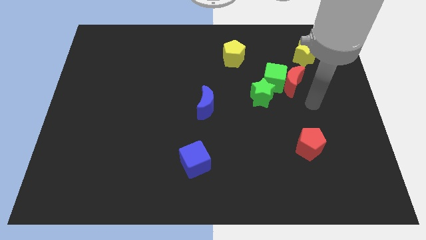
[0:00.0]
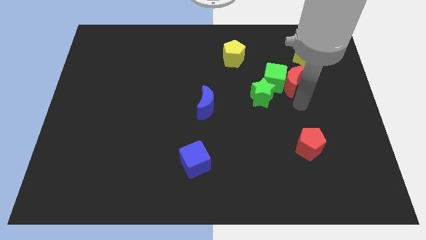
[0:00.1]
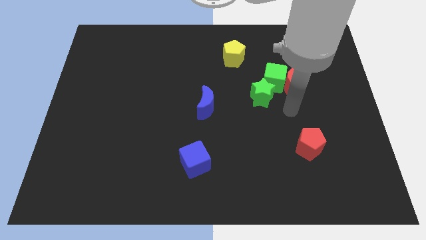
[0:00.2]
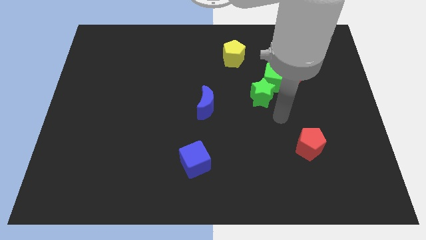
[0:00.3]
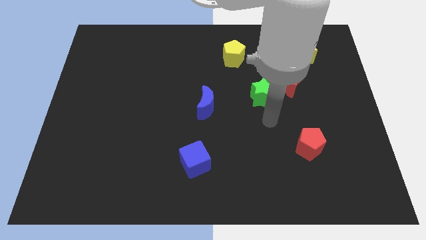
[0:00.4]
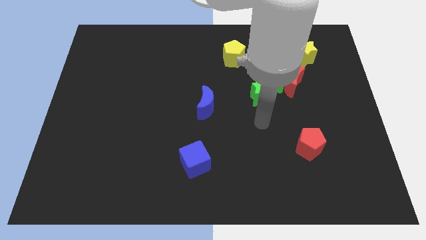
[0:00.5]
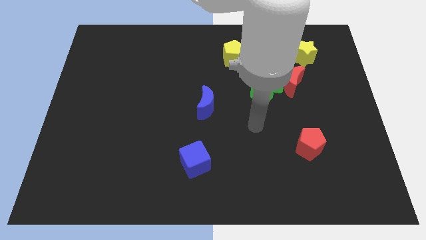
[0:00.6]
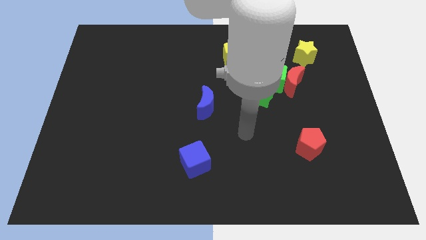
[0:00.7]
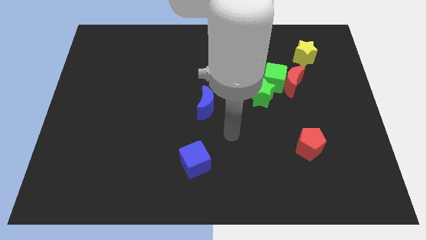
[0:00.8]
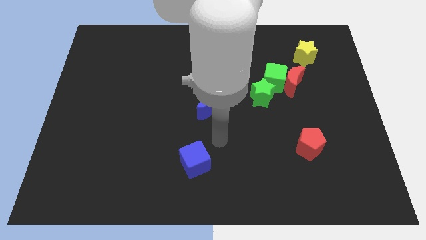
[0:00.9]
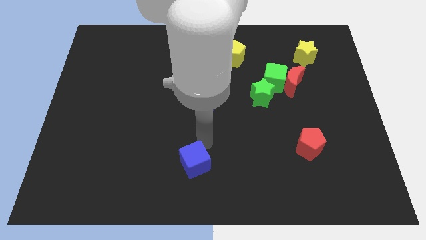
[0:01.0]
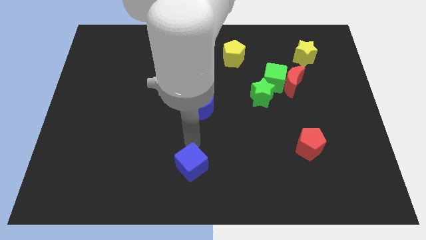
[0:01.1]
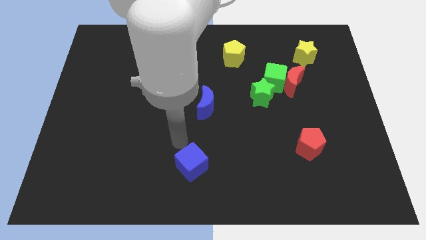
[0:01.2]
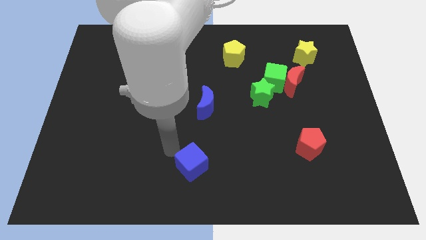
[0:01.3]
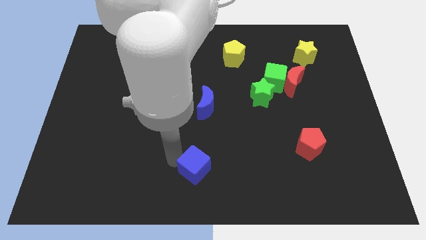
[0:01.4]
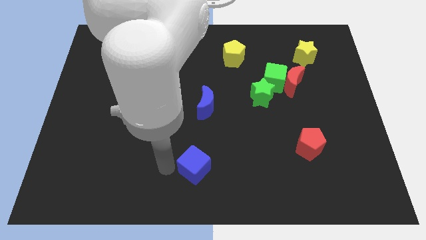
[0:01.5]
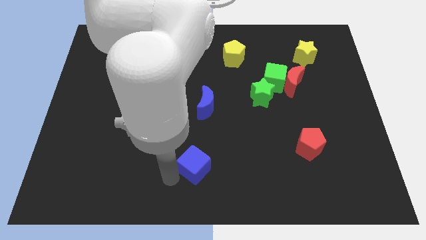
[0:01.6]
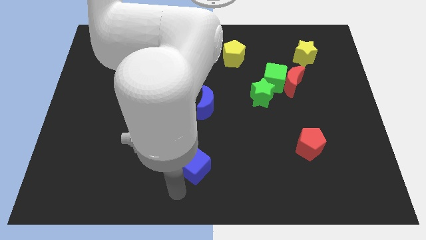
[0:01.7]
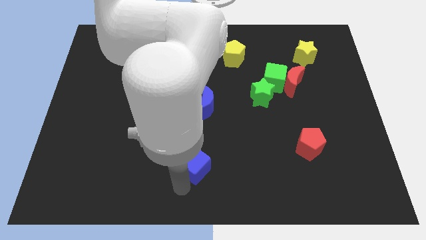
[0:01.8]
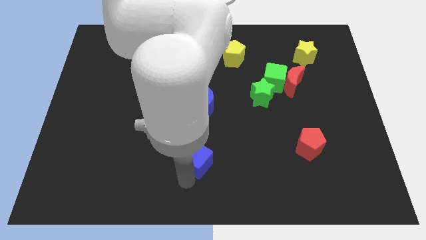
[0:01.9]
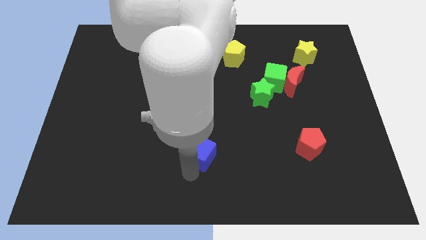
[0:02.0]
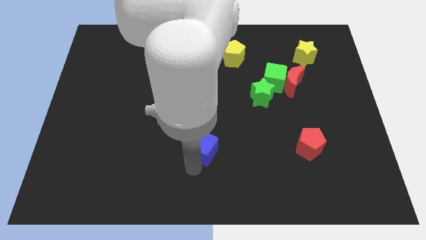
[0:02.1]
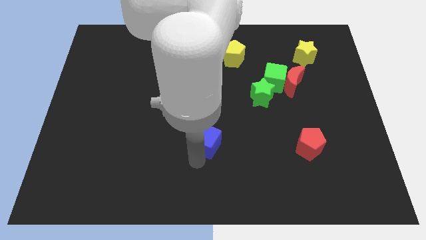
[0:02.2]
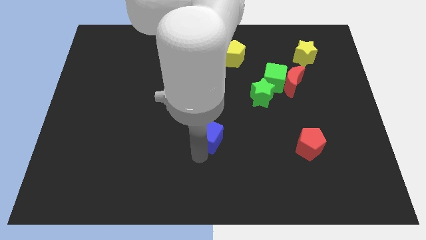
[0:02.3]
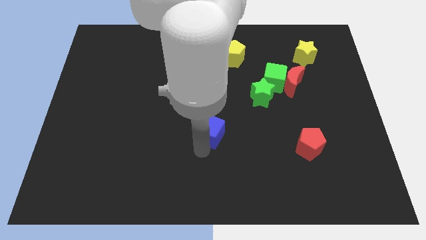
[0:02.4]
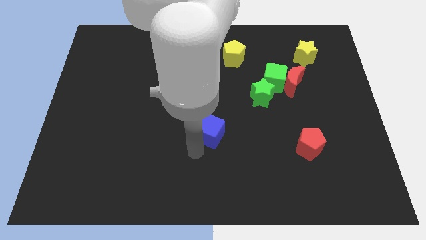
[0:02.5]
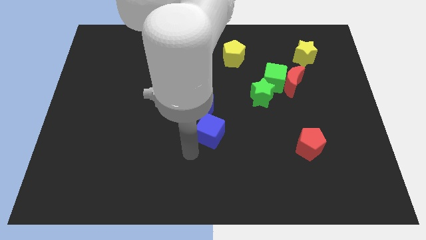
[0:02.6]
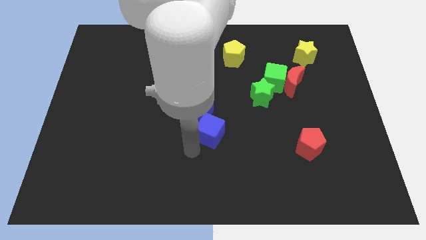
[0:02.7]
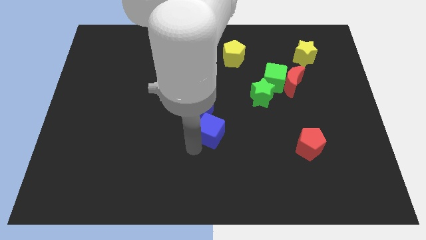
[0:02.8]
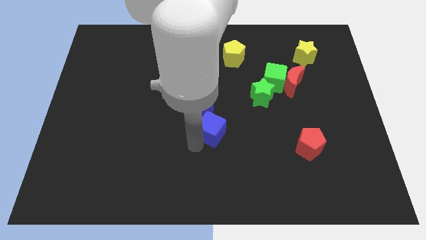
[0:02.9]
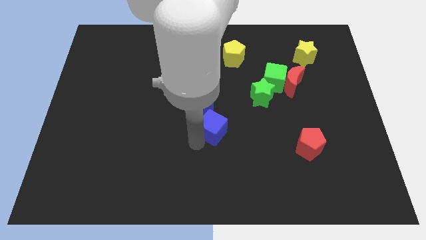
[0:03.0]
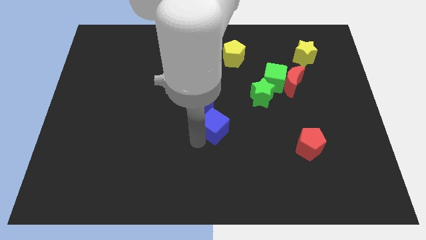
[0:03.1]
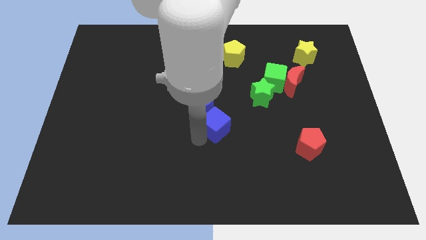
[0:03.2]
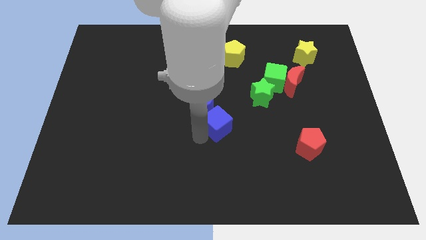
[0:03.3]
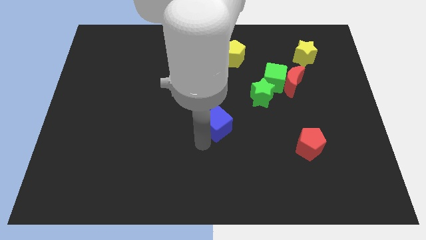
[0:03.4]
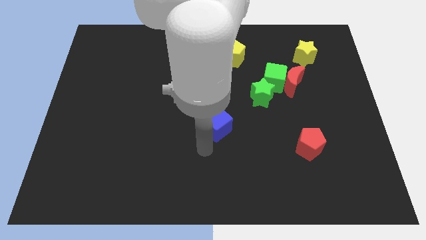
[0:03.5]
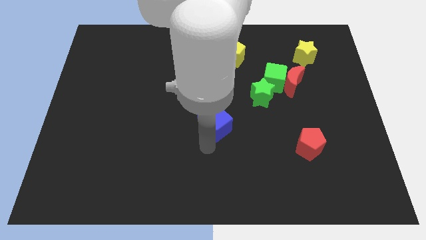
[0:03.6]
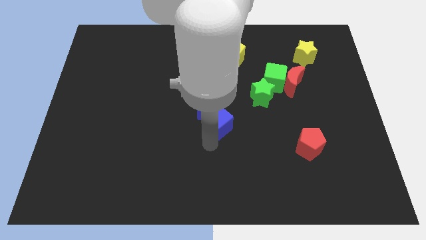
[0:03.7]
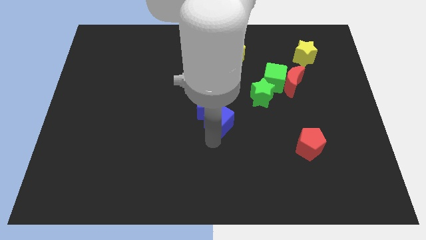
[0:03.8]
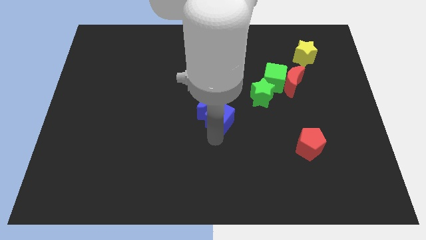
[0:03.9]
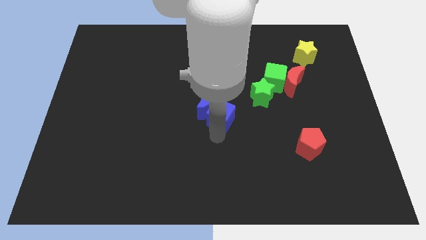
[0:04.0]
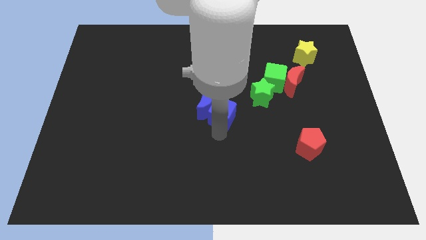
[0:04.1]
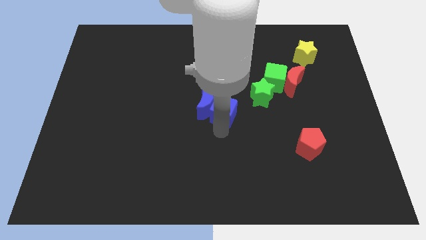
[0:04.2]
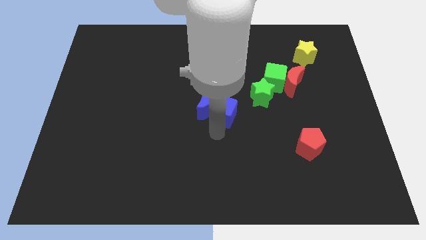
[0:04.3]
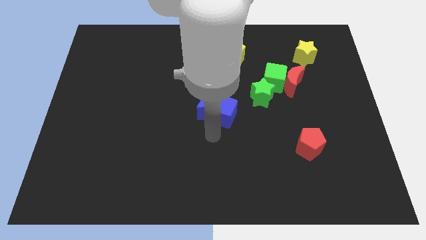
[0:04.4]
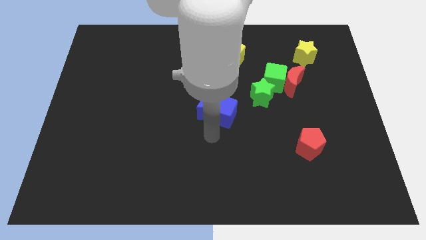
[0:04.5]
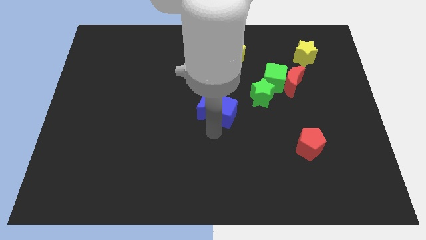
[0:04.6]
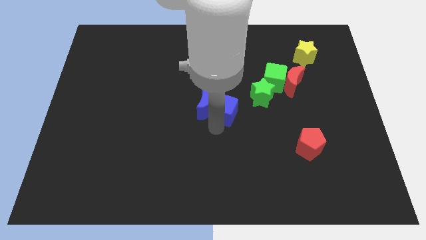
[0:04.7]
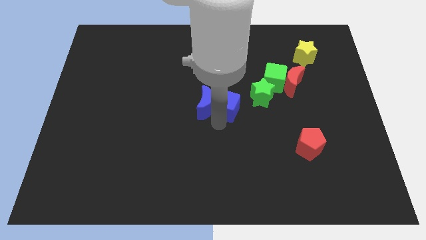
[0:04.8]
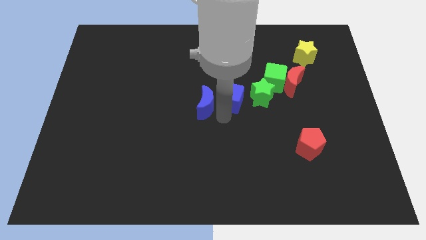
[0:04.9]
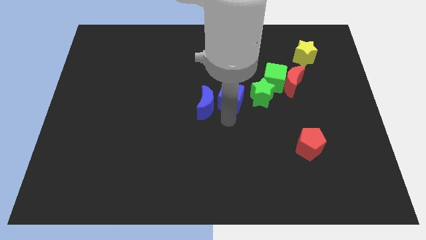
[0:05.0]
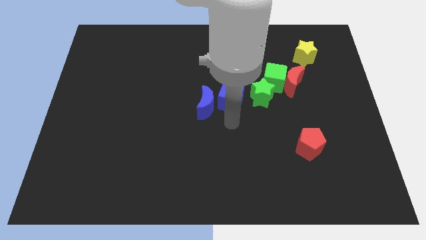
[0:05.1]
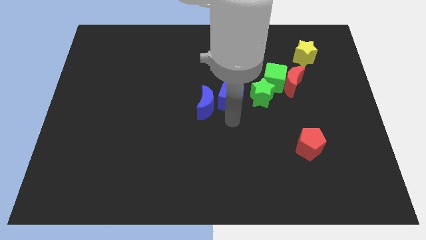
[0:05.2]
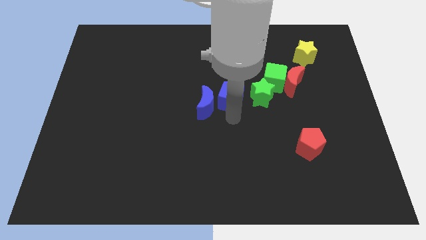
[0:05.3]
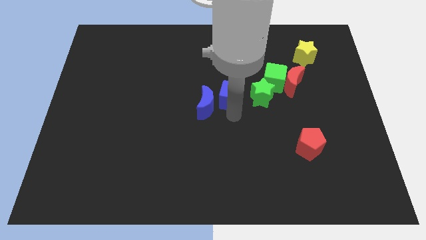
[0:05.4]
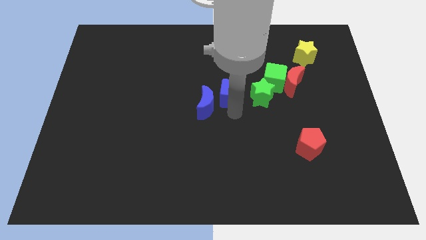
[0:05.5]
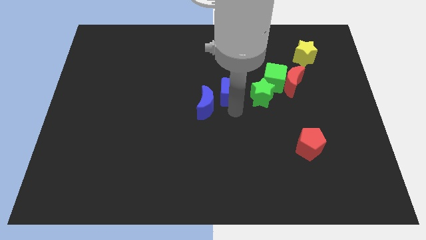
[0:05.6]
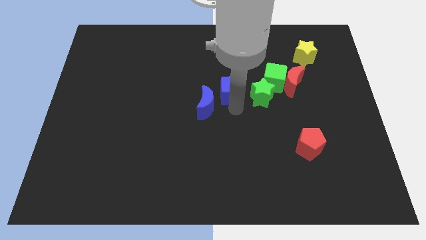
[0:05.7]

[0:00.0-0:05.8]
push the blue cube to the left side of the red moon

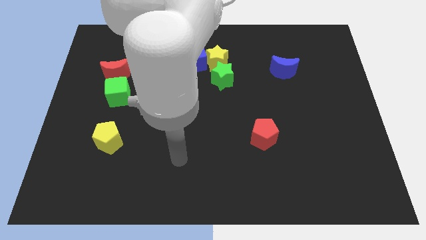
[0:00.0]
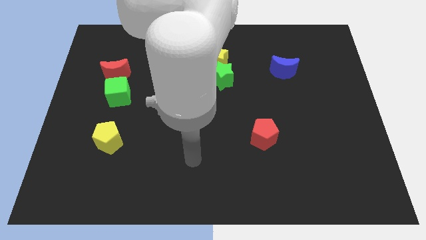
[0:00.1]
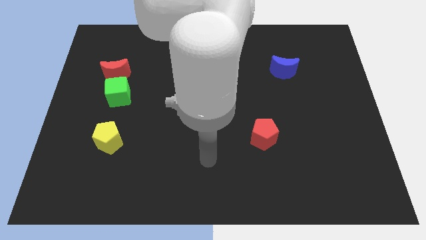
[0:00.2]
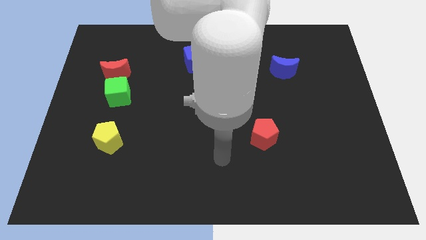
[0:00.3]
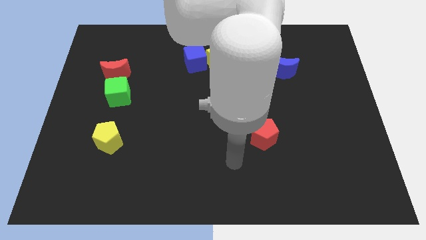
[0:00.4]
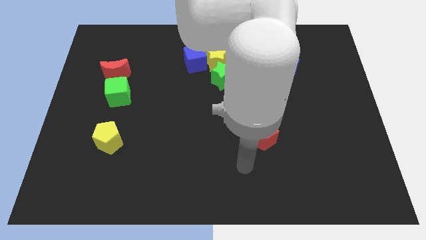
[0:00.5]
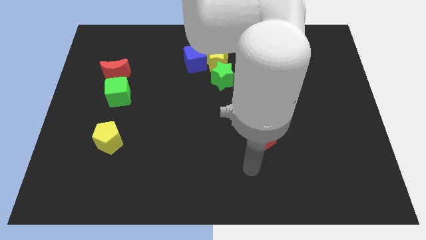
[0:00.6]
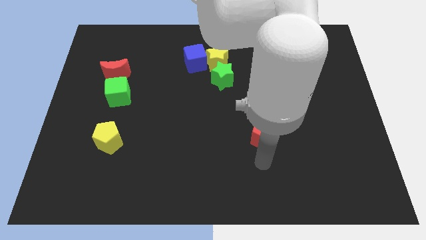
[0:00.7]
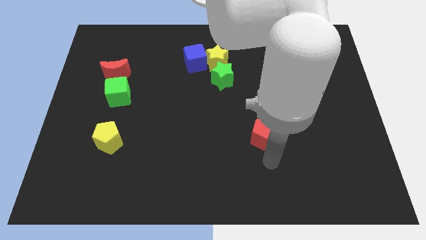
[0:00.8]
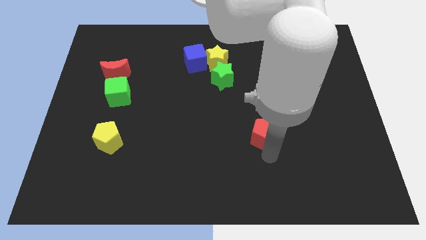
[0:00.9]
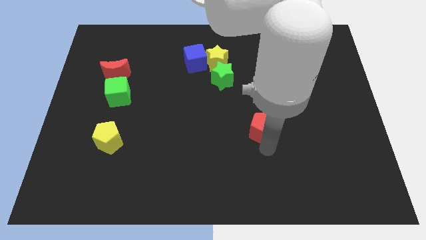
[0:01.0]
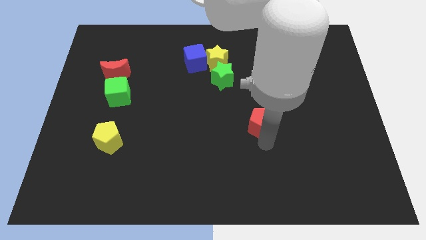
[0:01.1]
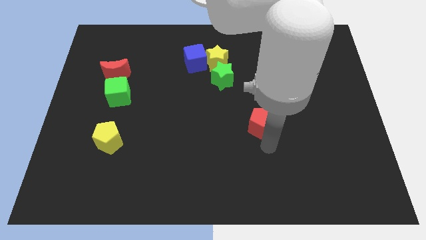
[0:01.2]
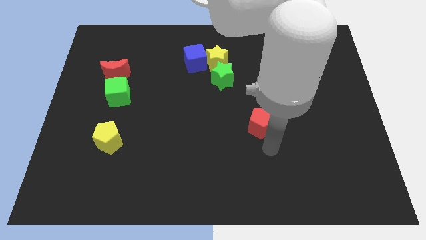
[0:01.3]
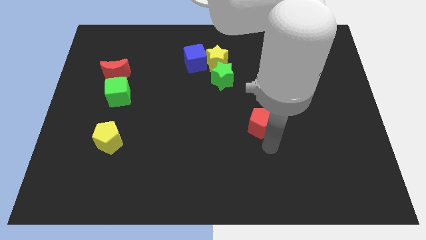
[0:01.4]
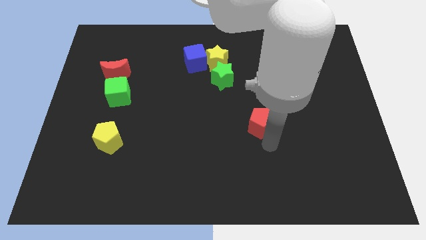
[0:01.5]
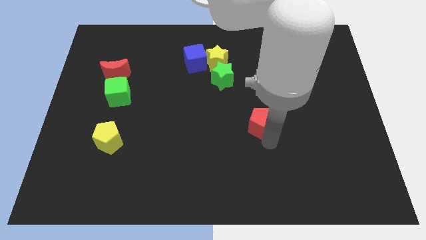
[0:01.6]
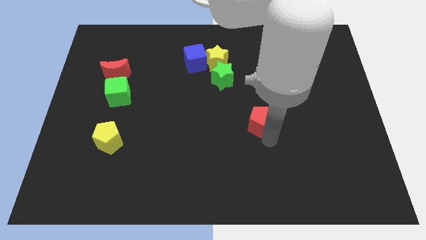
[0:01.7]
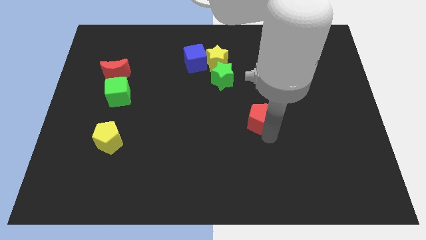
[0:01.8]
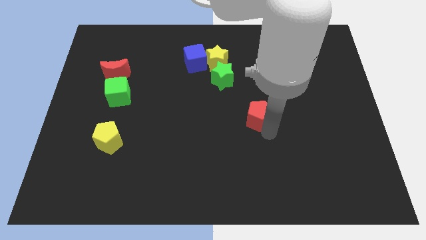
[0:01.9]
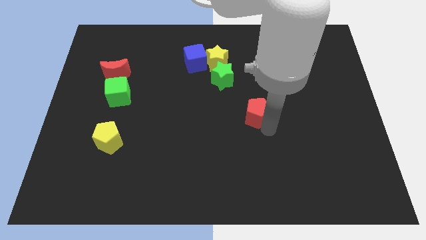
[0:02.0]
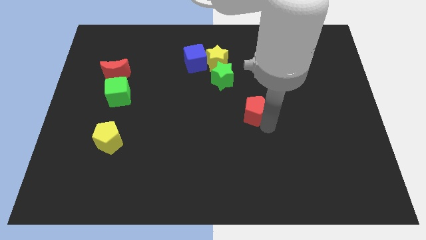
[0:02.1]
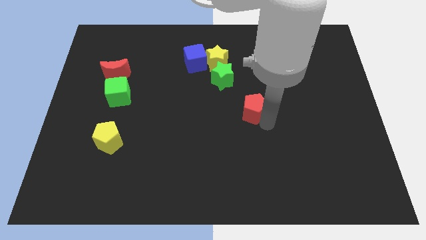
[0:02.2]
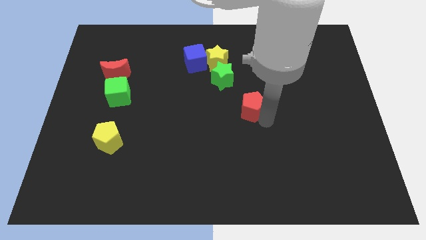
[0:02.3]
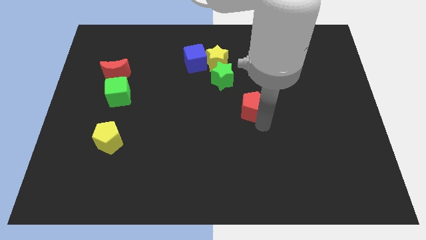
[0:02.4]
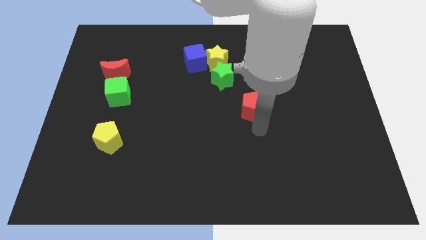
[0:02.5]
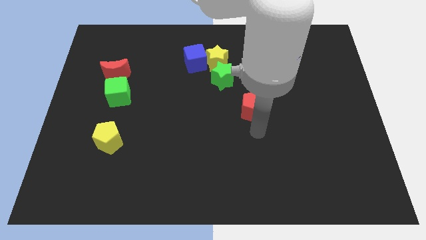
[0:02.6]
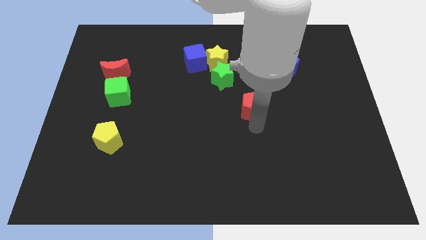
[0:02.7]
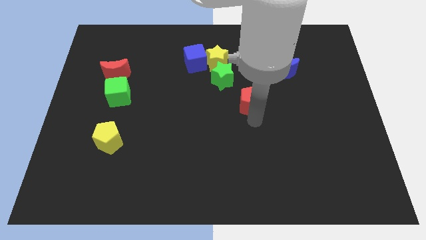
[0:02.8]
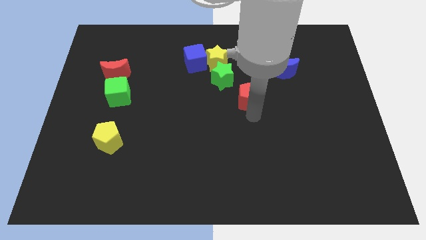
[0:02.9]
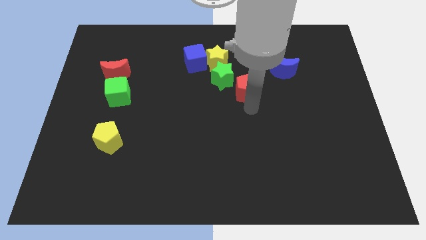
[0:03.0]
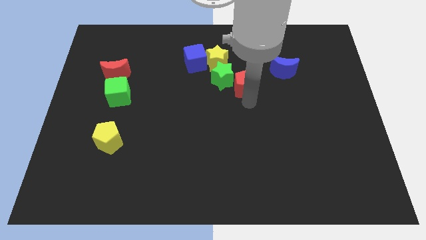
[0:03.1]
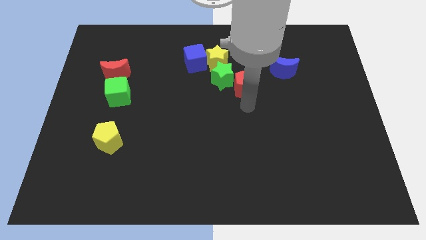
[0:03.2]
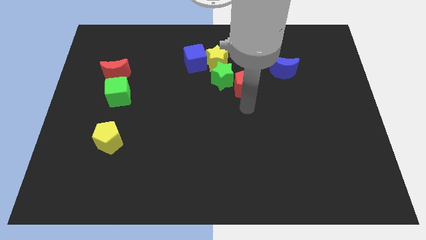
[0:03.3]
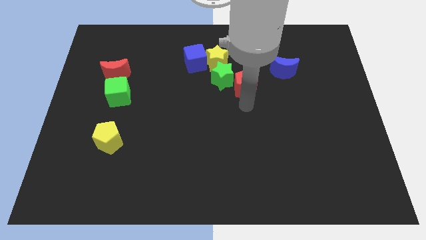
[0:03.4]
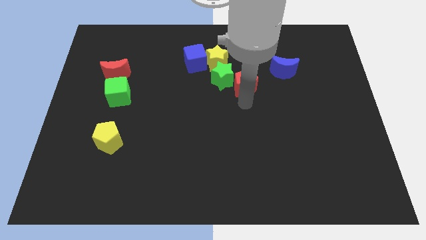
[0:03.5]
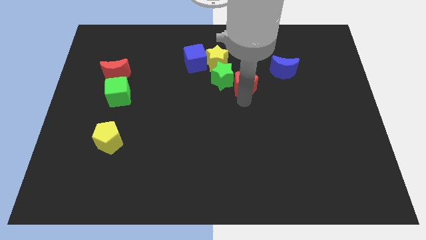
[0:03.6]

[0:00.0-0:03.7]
put the red pentagon to the left side of the blue moon
